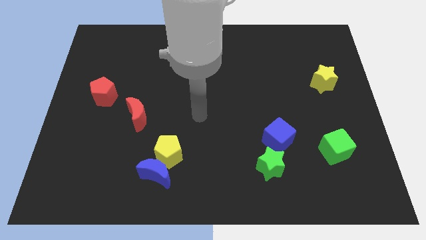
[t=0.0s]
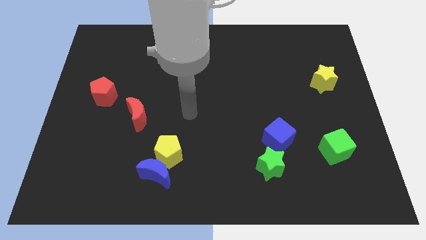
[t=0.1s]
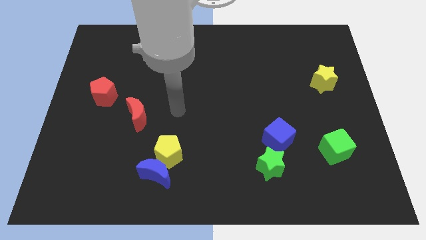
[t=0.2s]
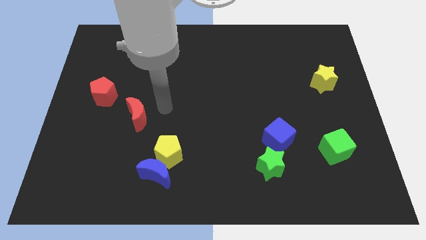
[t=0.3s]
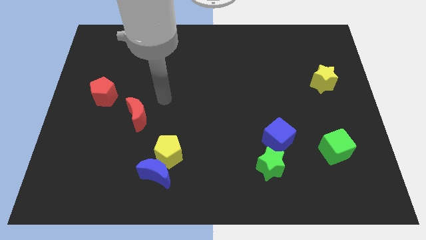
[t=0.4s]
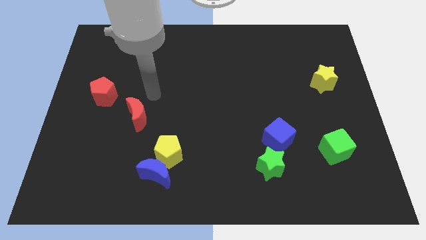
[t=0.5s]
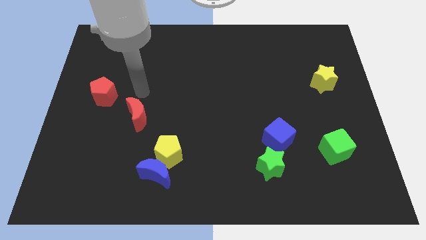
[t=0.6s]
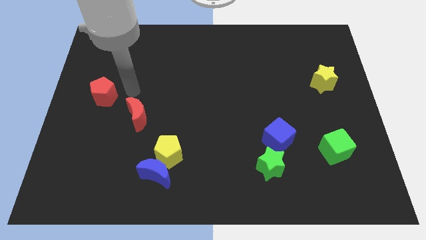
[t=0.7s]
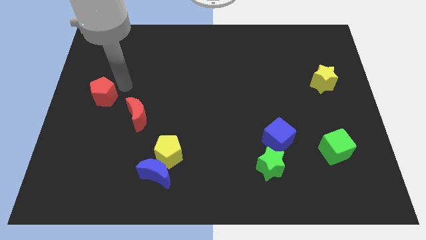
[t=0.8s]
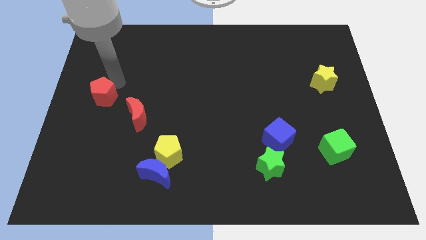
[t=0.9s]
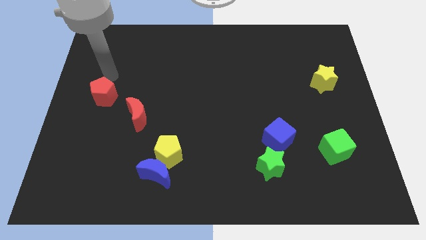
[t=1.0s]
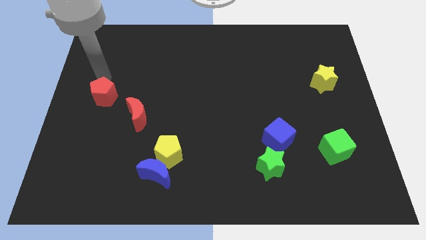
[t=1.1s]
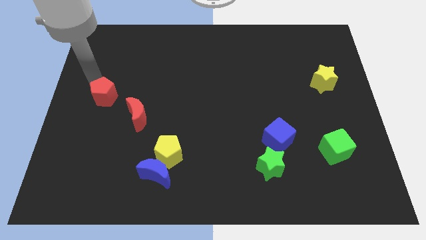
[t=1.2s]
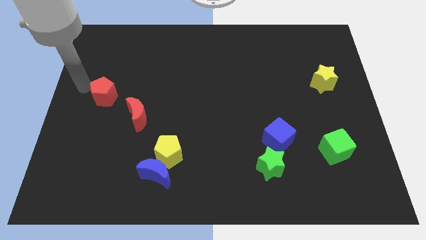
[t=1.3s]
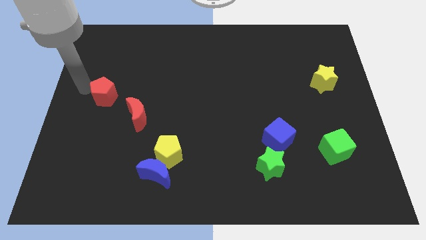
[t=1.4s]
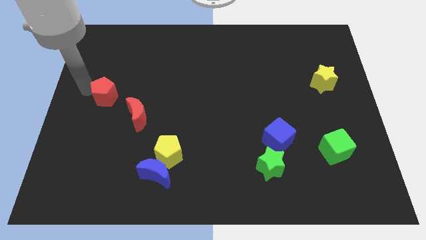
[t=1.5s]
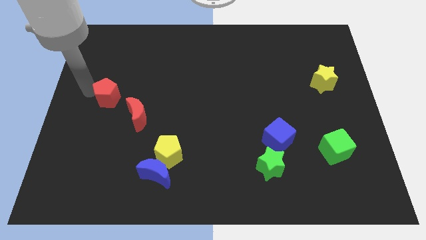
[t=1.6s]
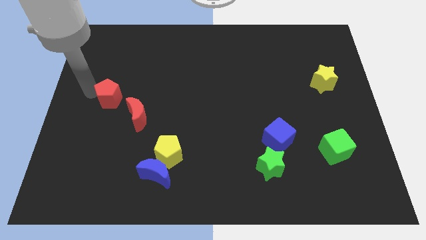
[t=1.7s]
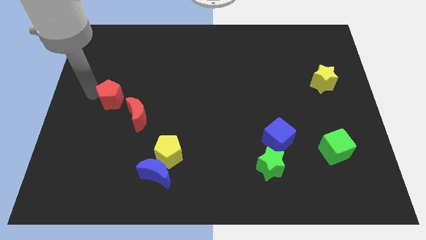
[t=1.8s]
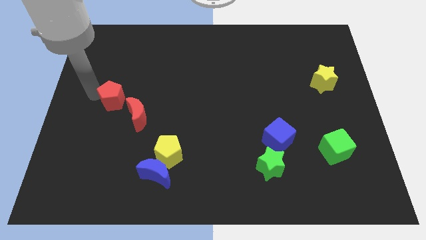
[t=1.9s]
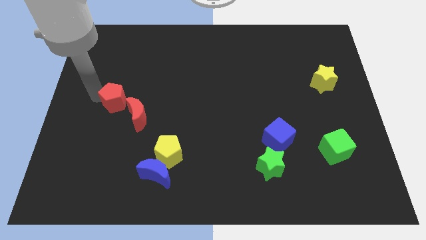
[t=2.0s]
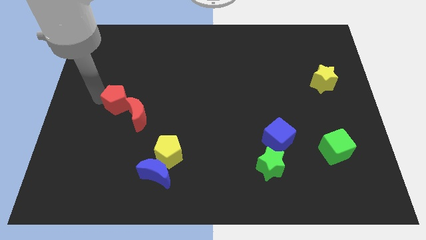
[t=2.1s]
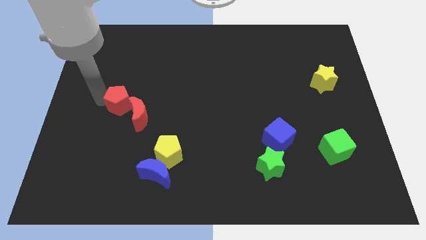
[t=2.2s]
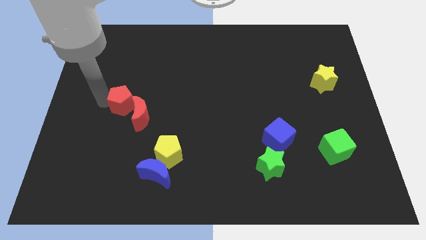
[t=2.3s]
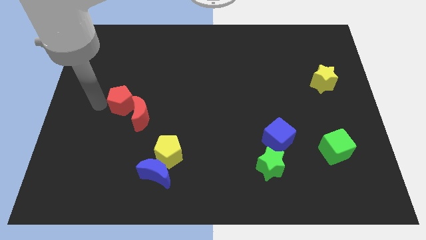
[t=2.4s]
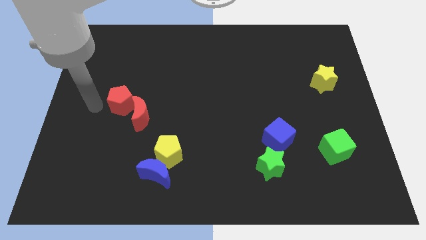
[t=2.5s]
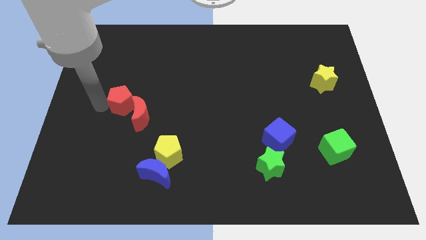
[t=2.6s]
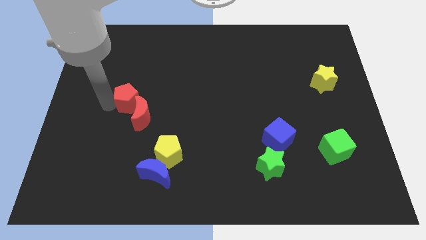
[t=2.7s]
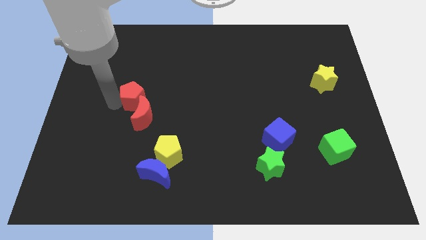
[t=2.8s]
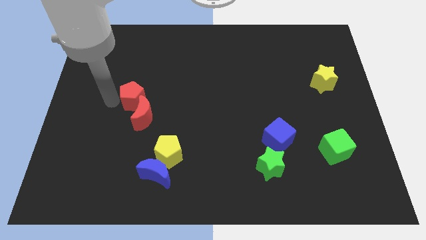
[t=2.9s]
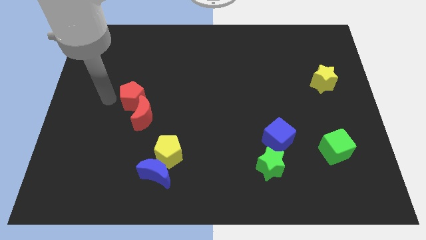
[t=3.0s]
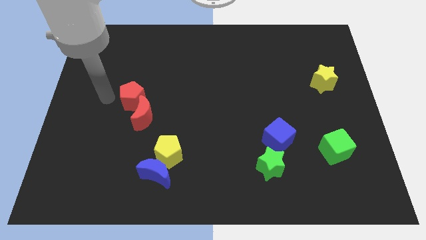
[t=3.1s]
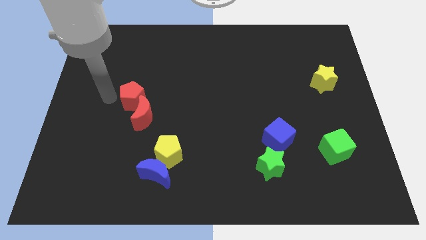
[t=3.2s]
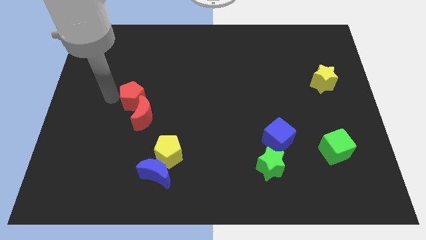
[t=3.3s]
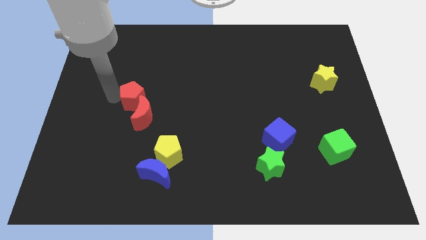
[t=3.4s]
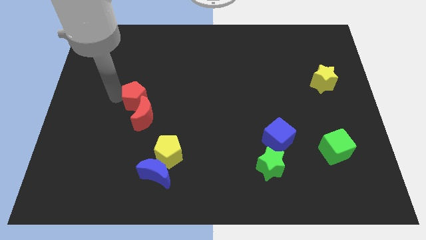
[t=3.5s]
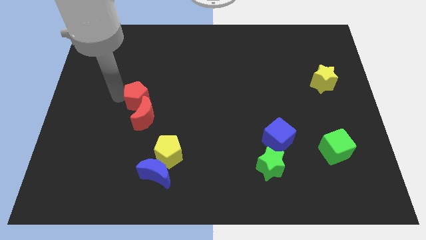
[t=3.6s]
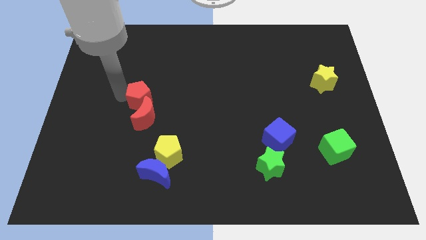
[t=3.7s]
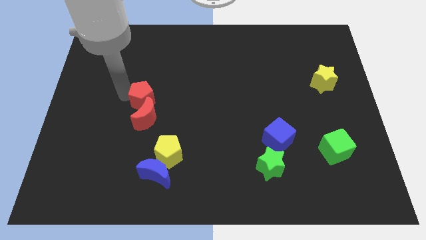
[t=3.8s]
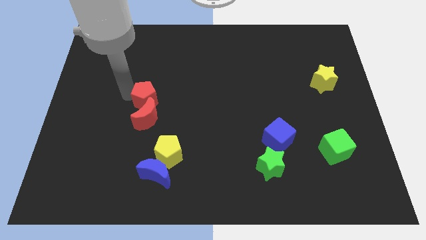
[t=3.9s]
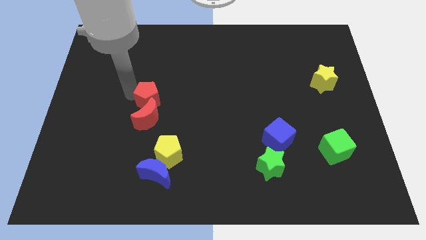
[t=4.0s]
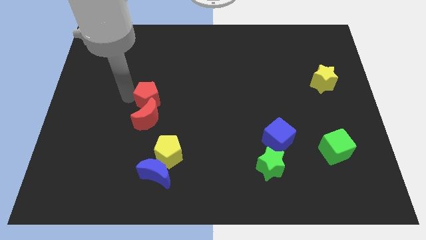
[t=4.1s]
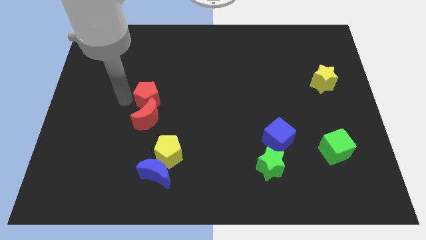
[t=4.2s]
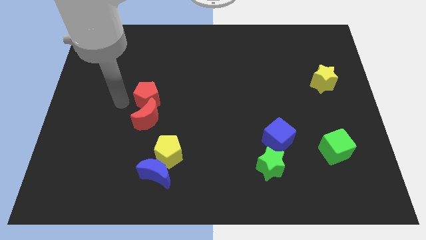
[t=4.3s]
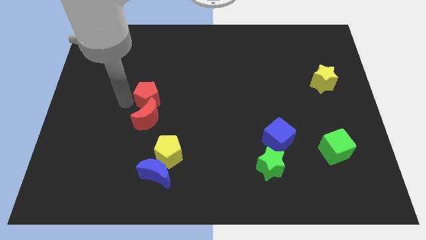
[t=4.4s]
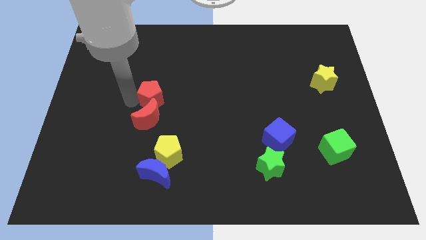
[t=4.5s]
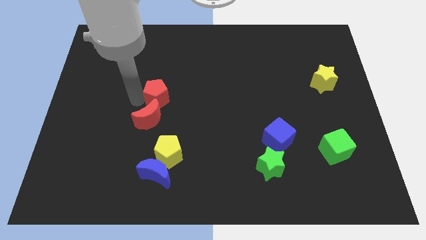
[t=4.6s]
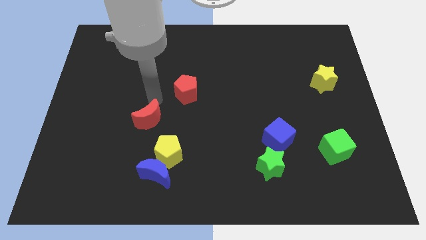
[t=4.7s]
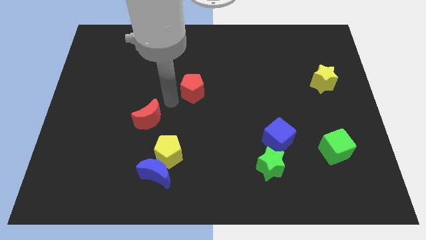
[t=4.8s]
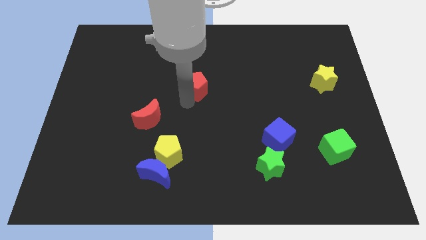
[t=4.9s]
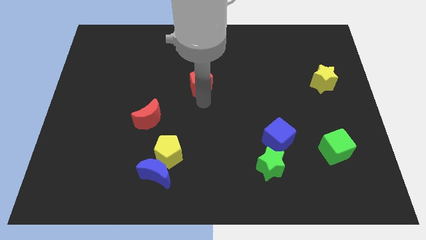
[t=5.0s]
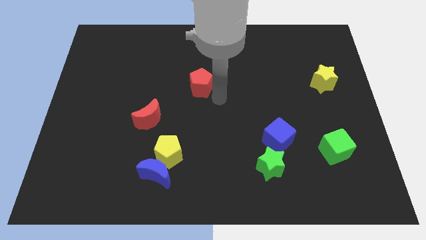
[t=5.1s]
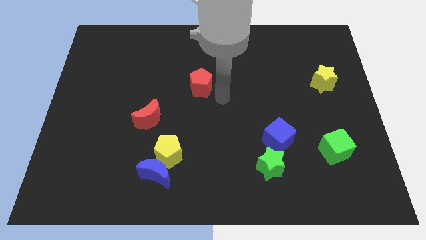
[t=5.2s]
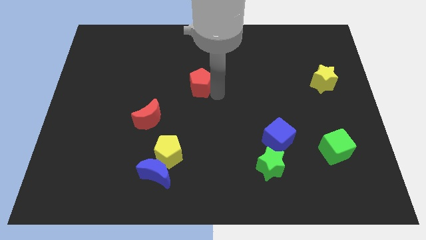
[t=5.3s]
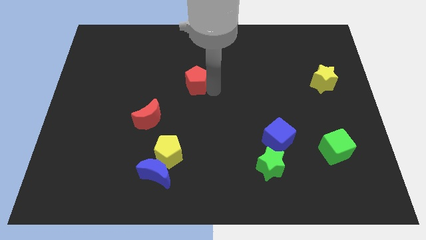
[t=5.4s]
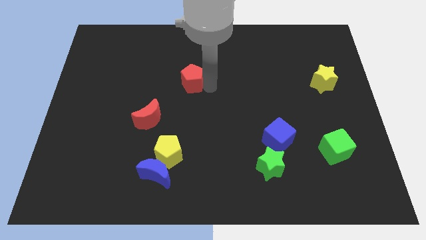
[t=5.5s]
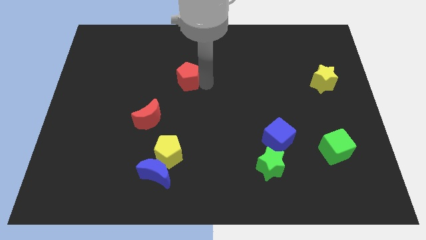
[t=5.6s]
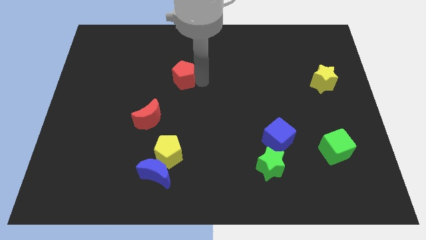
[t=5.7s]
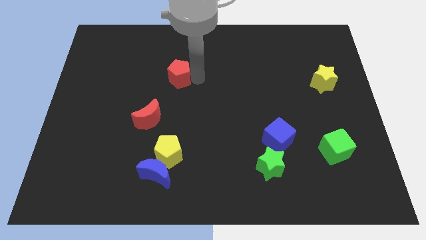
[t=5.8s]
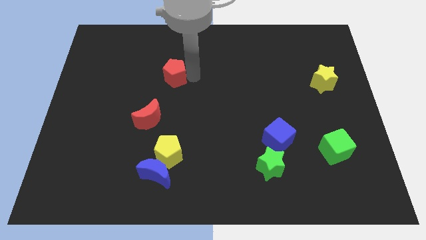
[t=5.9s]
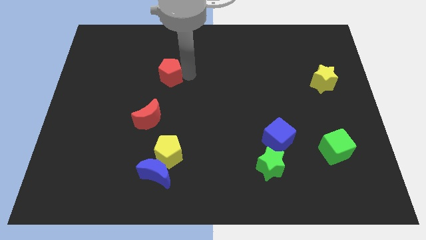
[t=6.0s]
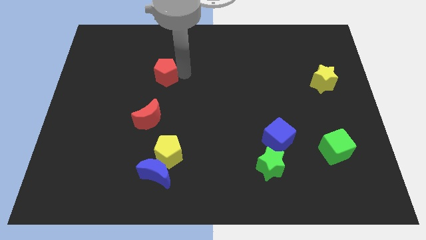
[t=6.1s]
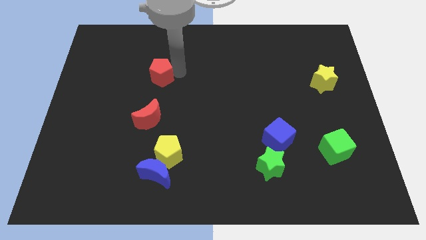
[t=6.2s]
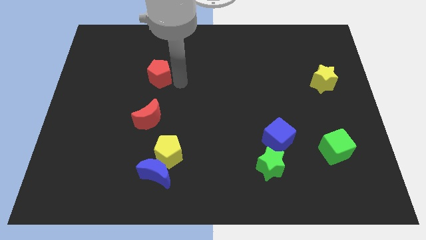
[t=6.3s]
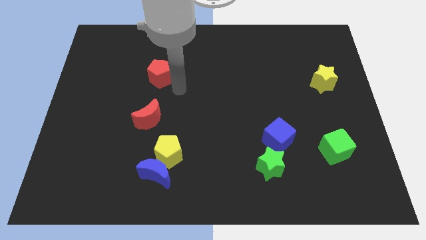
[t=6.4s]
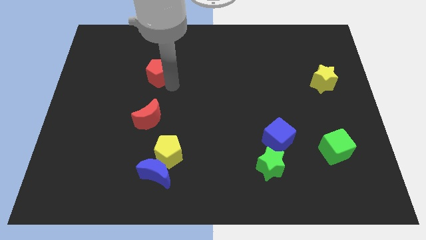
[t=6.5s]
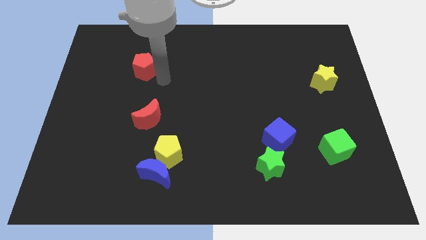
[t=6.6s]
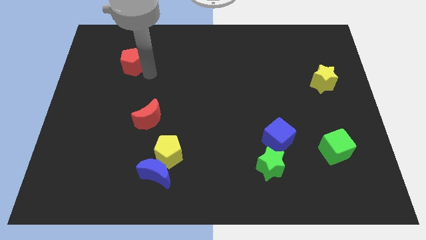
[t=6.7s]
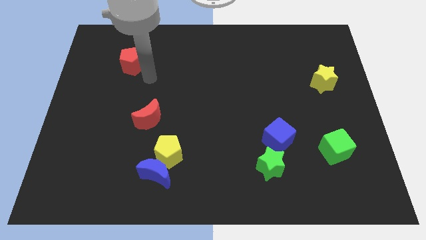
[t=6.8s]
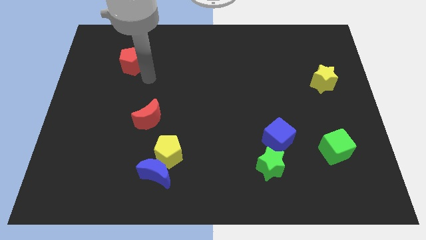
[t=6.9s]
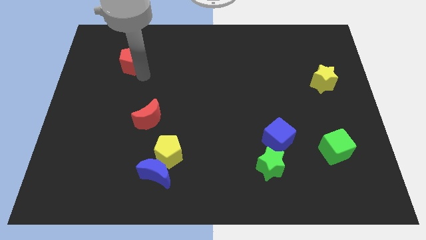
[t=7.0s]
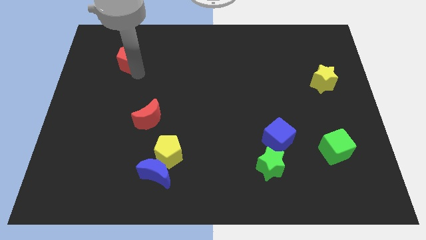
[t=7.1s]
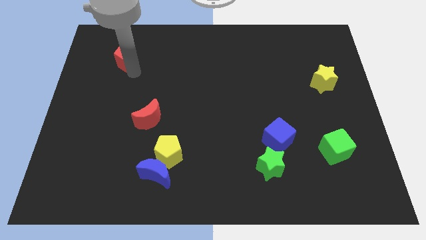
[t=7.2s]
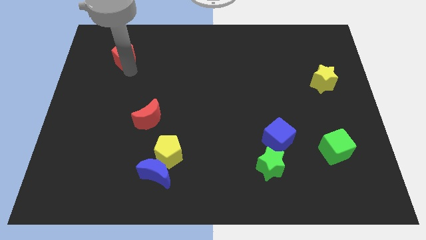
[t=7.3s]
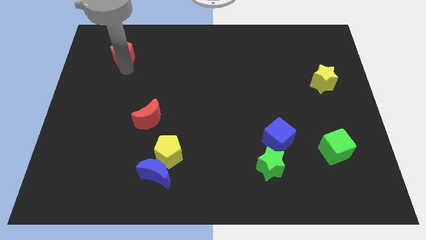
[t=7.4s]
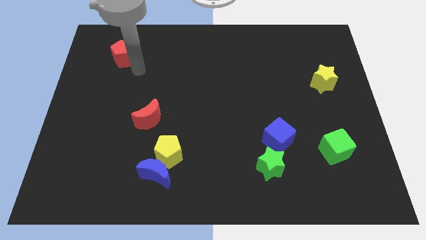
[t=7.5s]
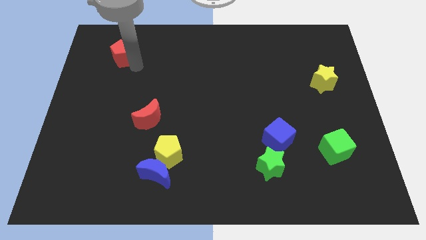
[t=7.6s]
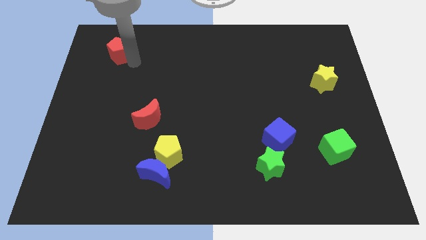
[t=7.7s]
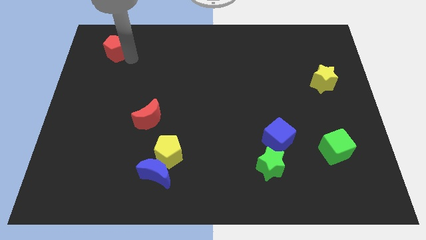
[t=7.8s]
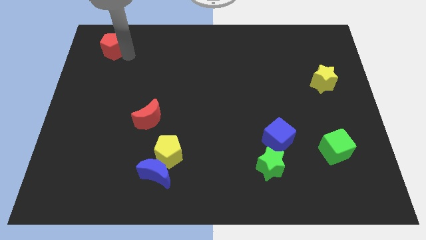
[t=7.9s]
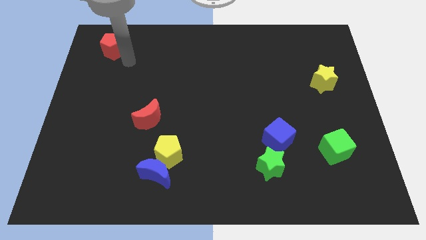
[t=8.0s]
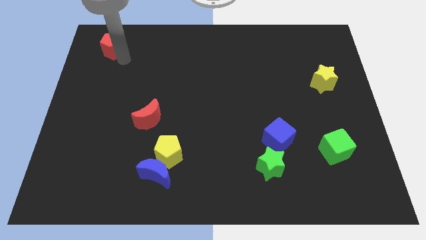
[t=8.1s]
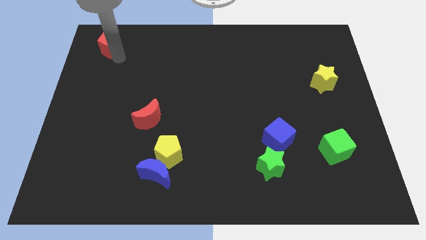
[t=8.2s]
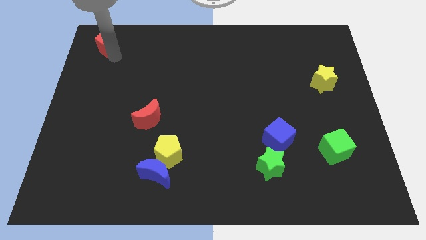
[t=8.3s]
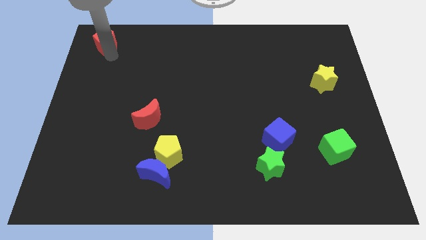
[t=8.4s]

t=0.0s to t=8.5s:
slide the red pentagon to the top left corner

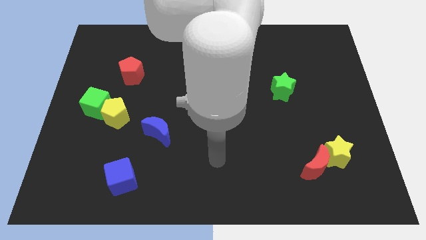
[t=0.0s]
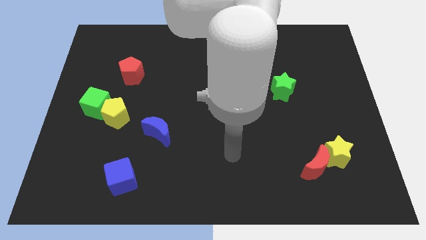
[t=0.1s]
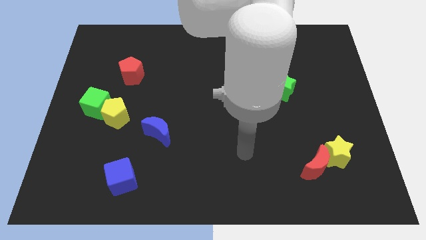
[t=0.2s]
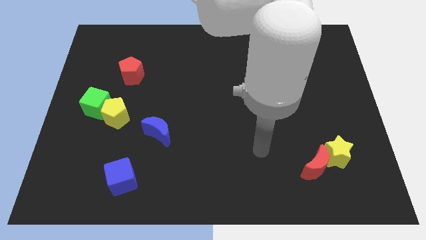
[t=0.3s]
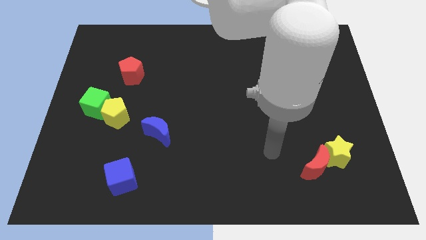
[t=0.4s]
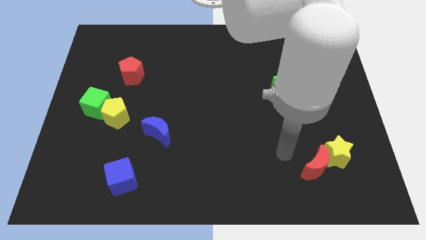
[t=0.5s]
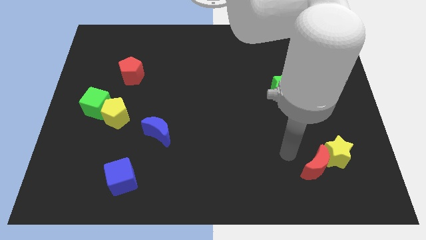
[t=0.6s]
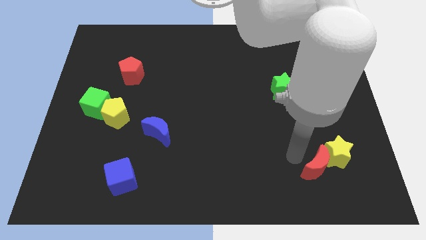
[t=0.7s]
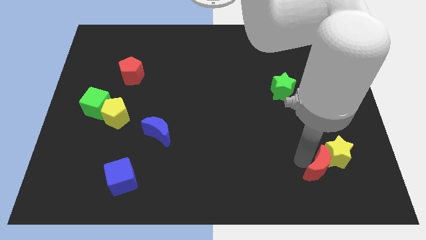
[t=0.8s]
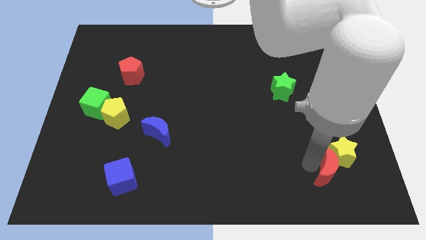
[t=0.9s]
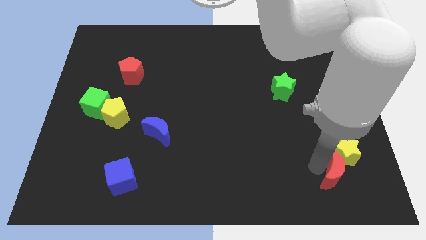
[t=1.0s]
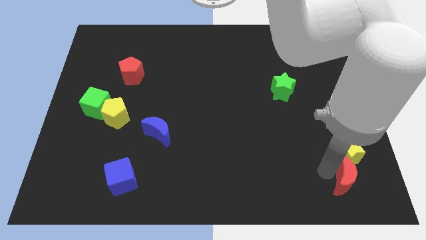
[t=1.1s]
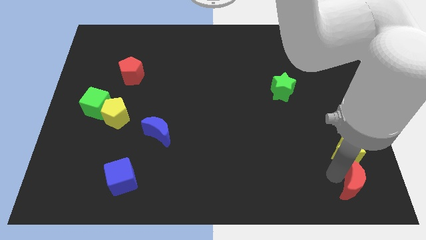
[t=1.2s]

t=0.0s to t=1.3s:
slide the red moon to the bottom right
